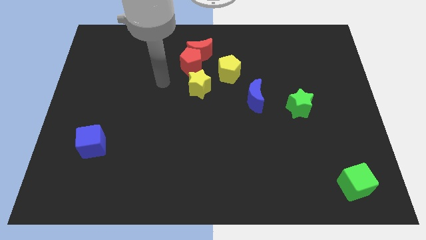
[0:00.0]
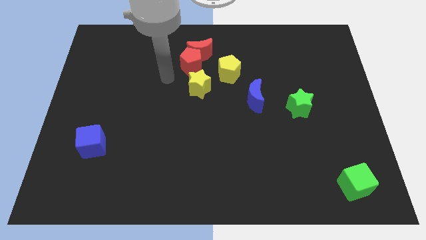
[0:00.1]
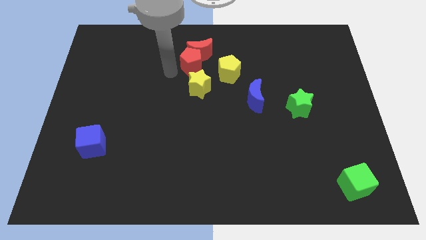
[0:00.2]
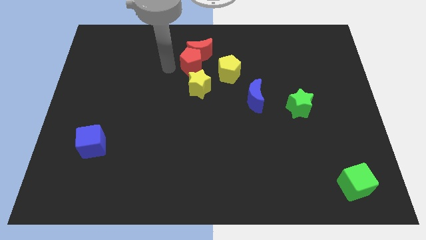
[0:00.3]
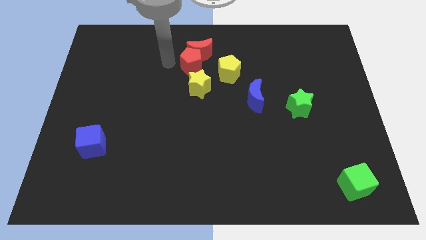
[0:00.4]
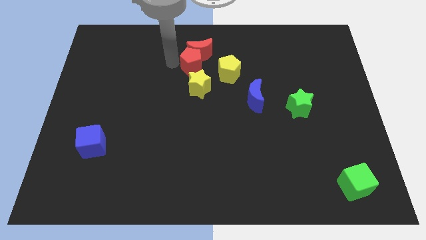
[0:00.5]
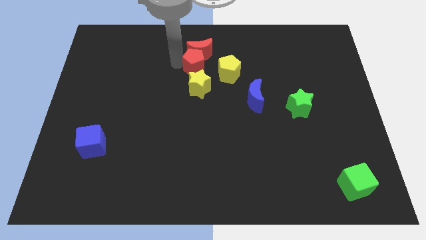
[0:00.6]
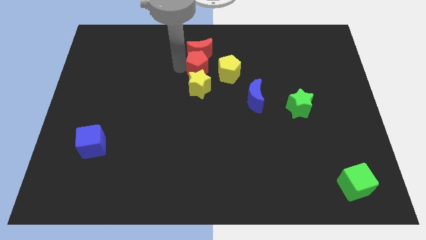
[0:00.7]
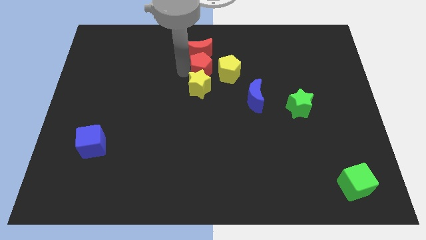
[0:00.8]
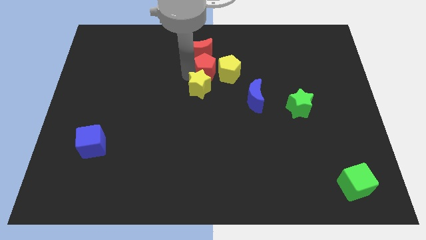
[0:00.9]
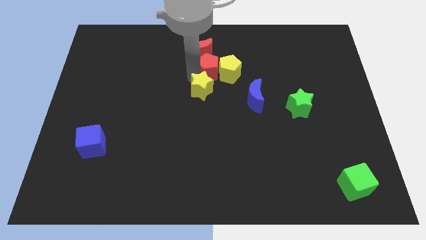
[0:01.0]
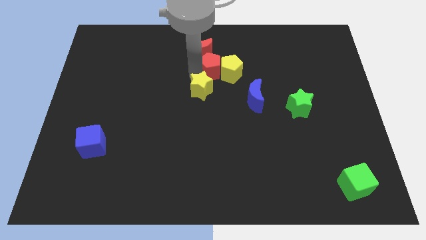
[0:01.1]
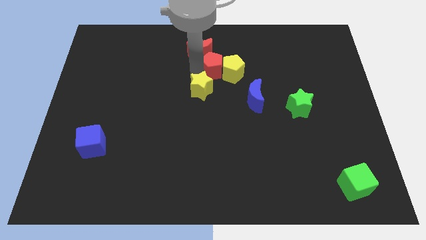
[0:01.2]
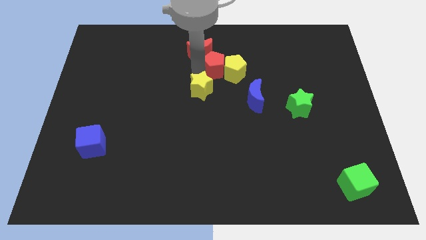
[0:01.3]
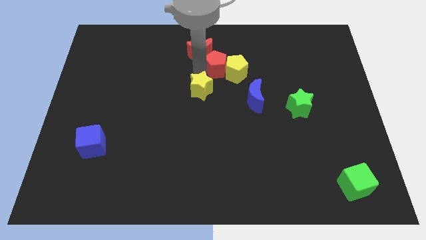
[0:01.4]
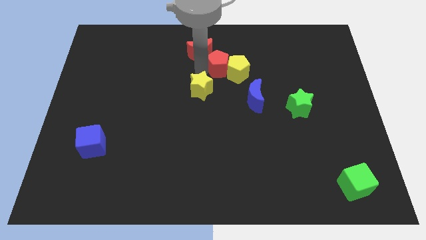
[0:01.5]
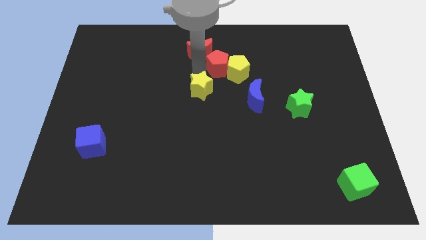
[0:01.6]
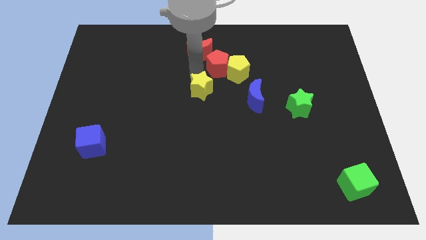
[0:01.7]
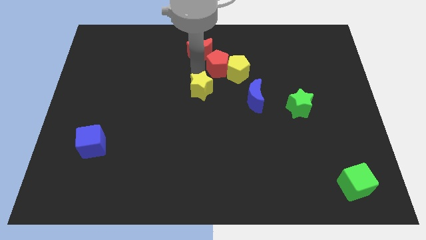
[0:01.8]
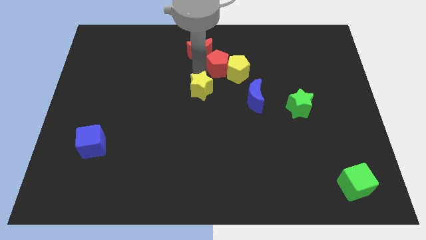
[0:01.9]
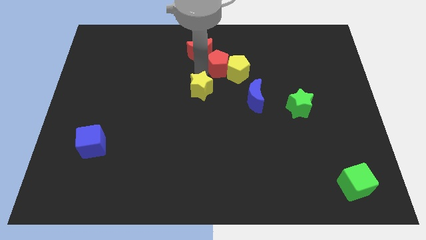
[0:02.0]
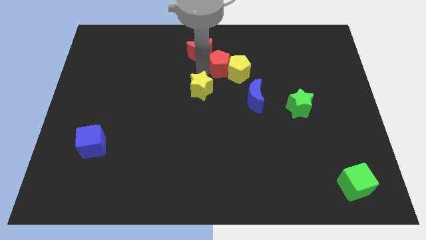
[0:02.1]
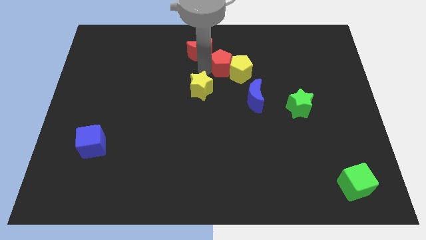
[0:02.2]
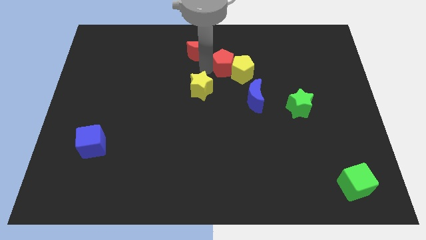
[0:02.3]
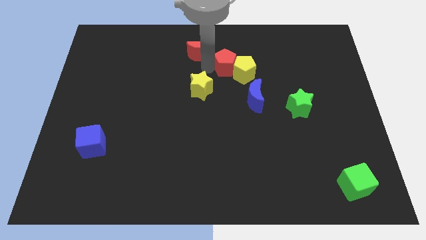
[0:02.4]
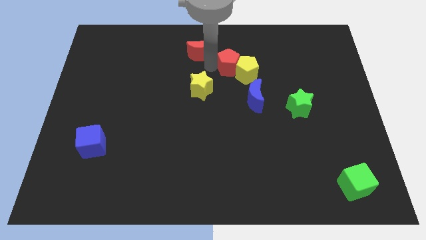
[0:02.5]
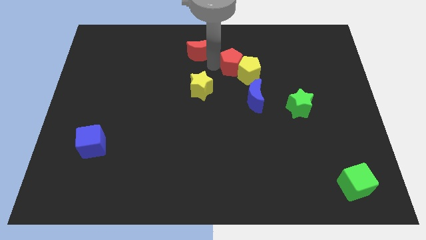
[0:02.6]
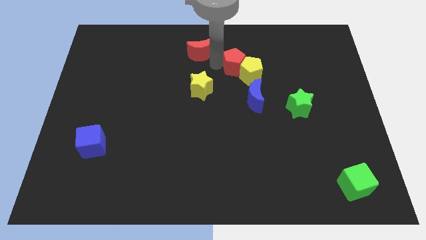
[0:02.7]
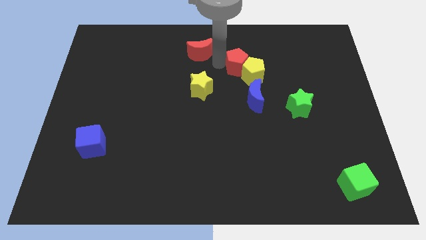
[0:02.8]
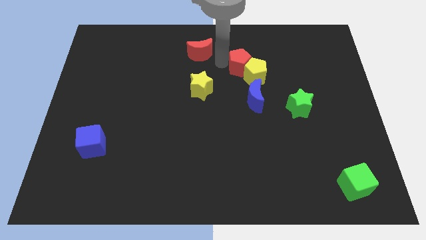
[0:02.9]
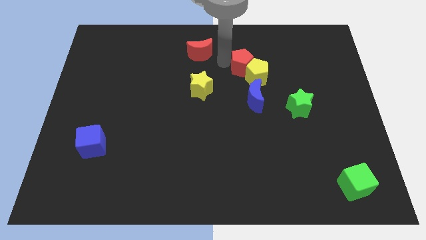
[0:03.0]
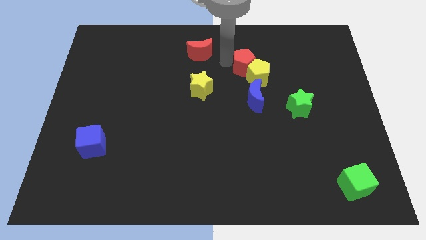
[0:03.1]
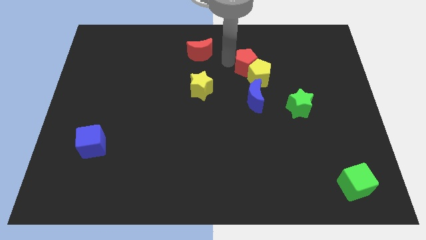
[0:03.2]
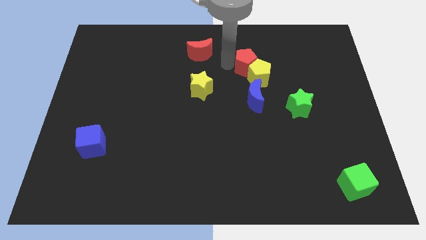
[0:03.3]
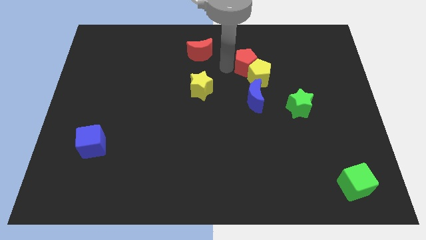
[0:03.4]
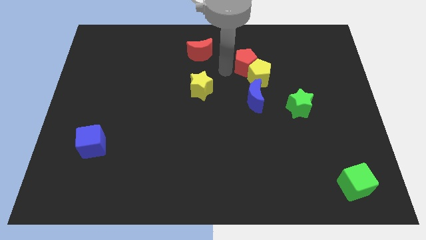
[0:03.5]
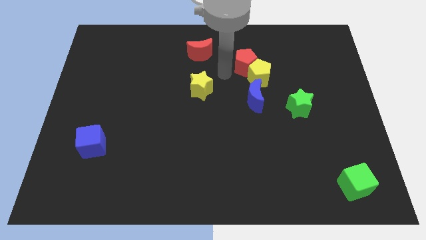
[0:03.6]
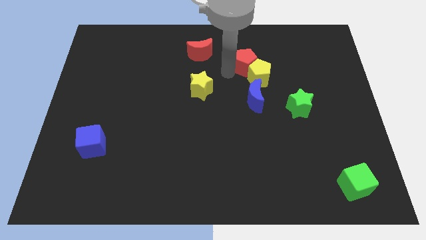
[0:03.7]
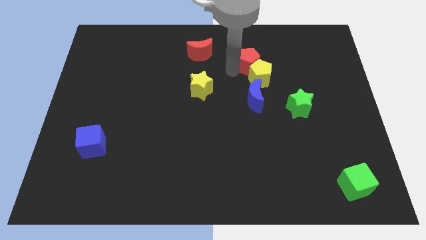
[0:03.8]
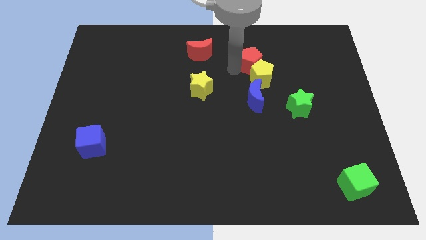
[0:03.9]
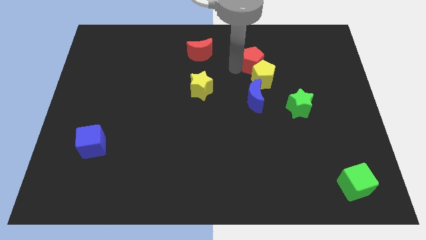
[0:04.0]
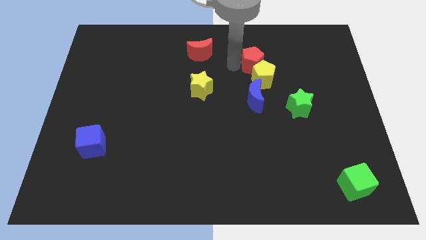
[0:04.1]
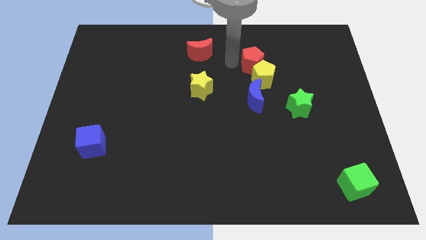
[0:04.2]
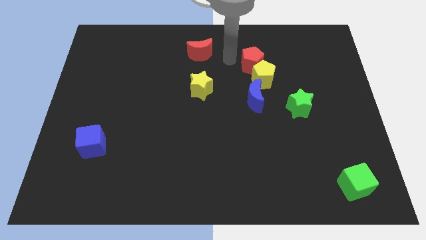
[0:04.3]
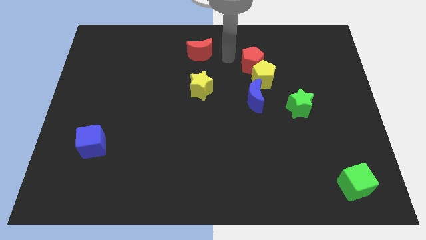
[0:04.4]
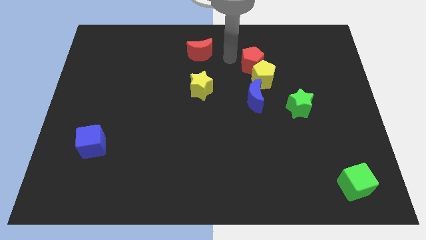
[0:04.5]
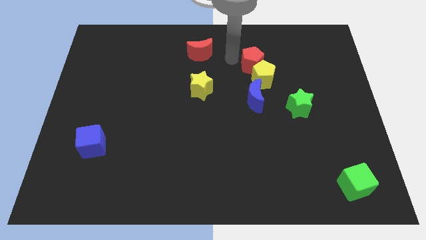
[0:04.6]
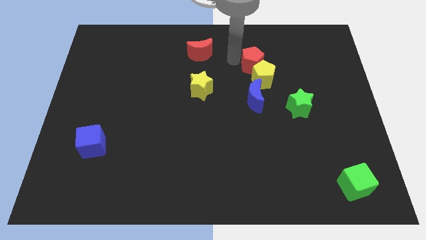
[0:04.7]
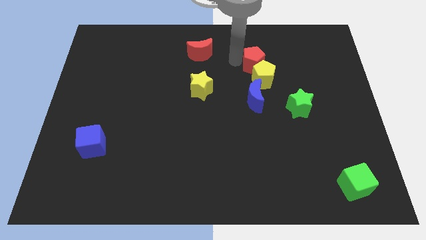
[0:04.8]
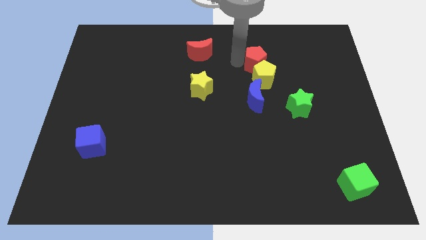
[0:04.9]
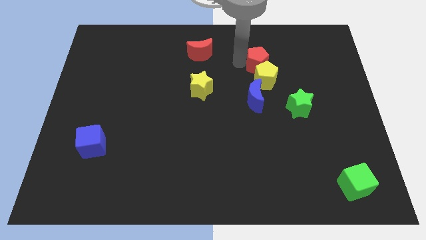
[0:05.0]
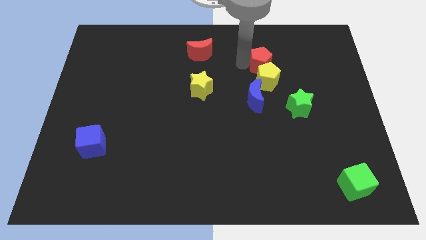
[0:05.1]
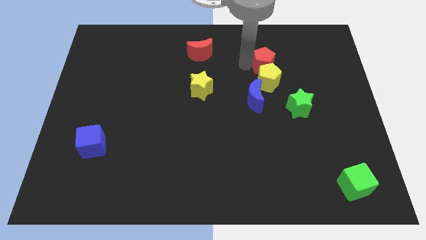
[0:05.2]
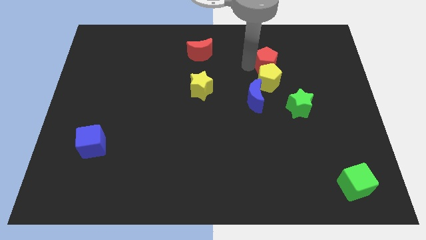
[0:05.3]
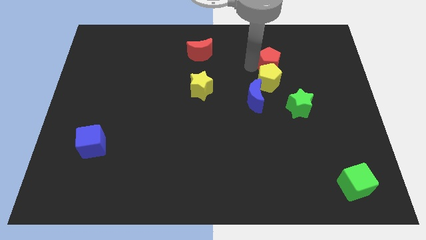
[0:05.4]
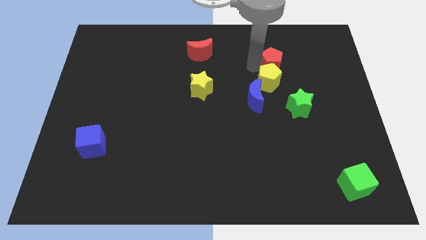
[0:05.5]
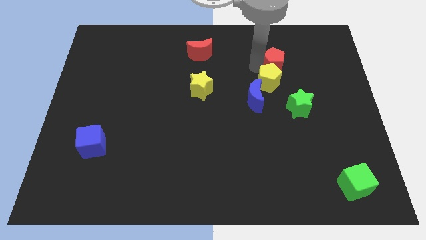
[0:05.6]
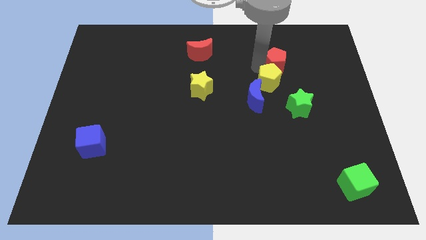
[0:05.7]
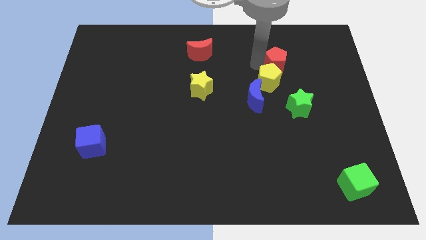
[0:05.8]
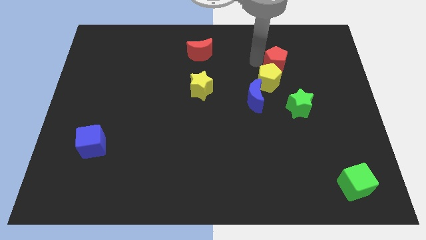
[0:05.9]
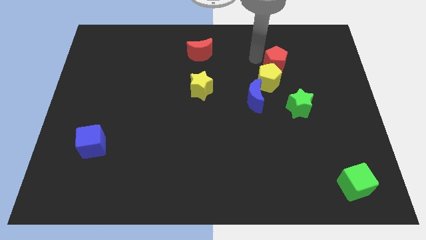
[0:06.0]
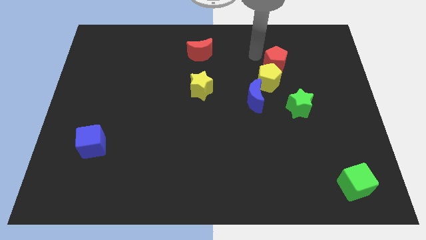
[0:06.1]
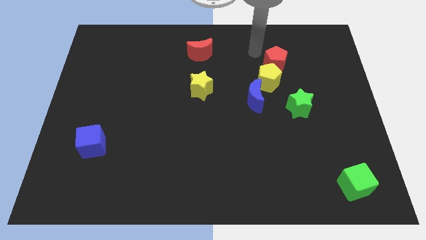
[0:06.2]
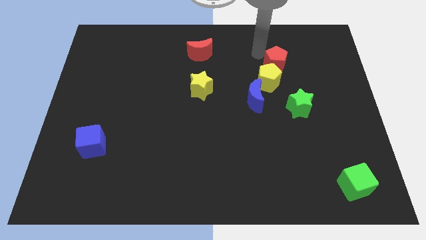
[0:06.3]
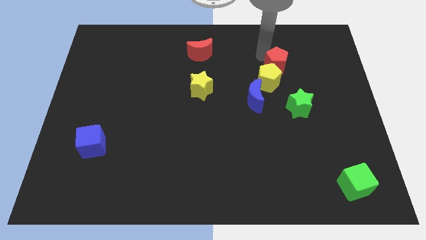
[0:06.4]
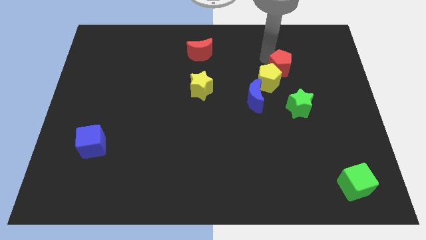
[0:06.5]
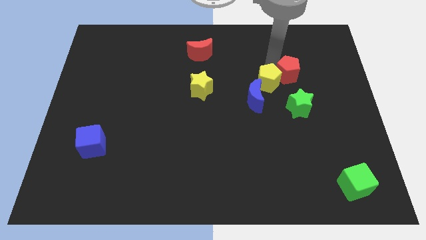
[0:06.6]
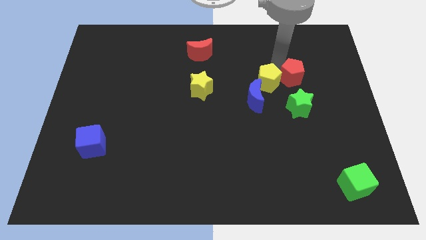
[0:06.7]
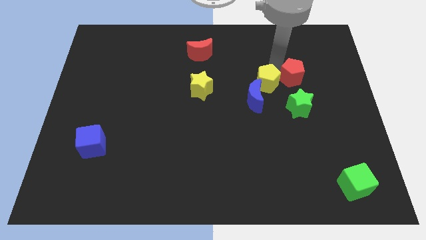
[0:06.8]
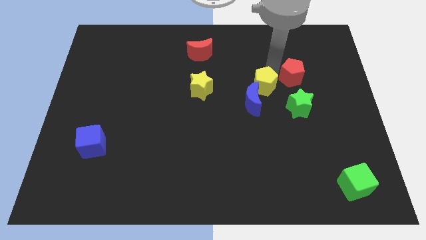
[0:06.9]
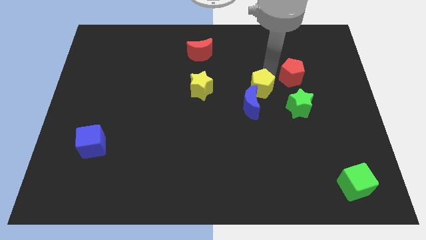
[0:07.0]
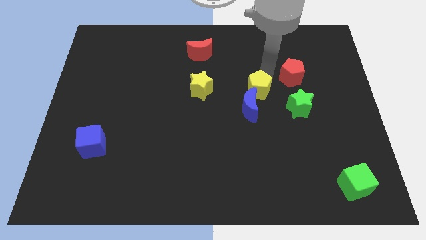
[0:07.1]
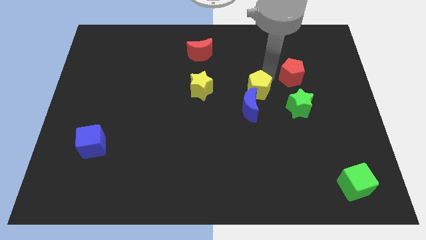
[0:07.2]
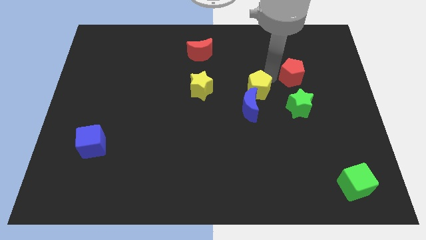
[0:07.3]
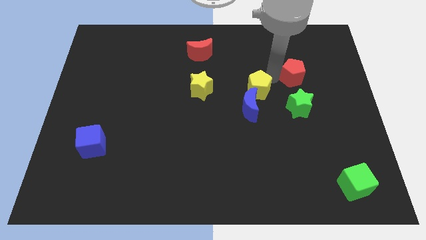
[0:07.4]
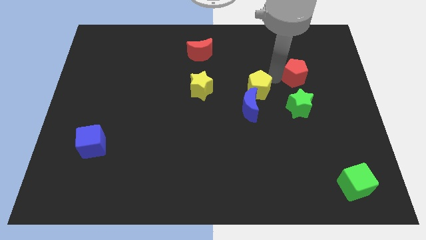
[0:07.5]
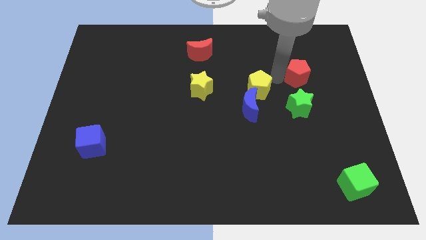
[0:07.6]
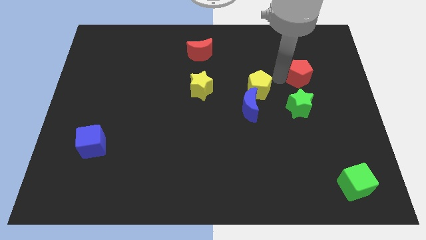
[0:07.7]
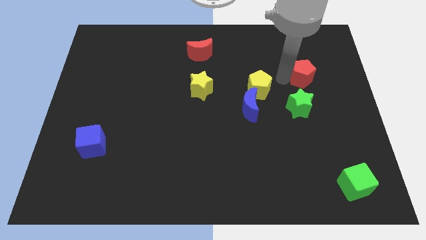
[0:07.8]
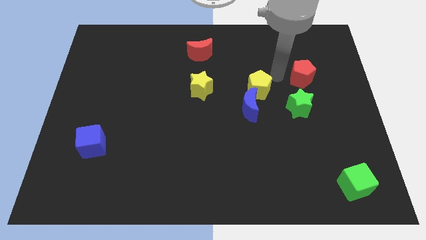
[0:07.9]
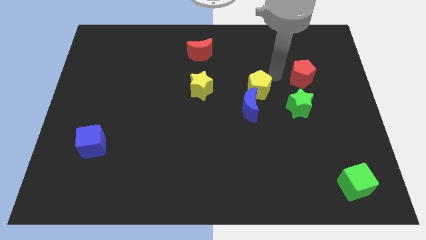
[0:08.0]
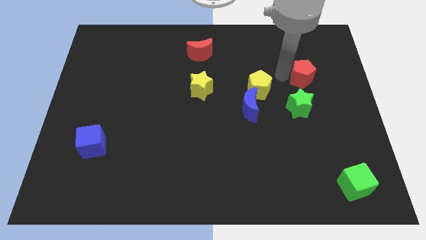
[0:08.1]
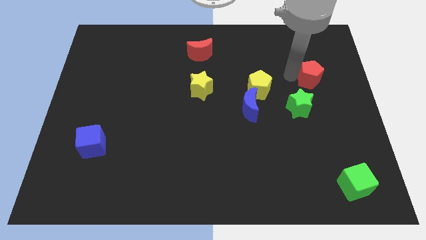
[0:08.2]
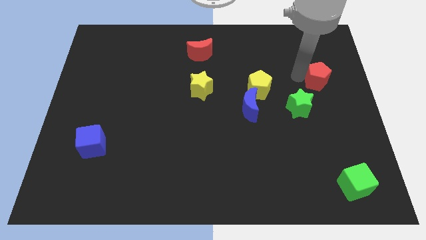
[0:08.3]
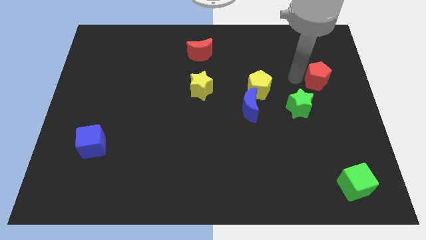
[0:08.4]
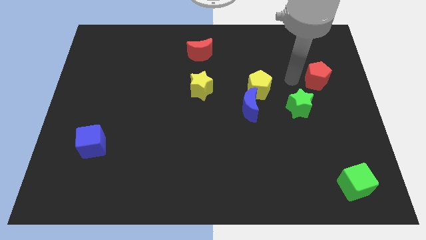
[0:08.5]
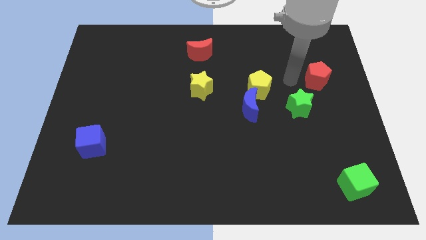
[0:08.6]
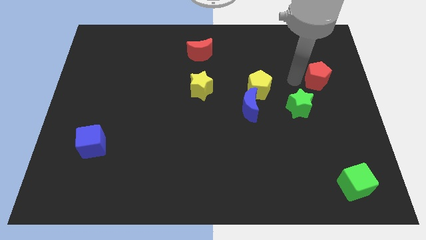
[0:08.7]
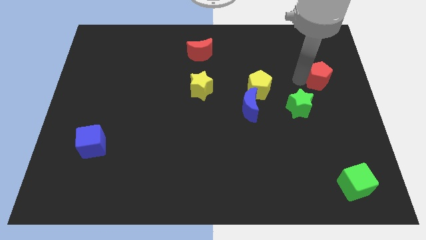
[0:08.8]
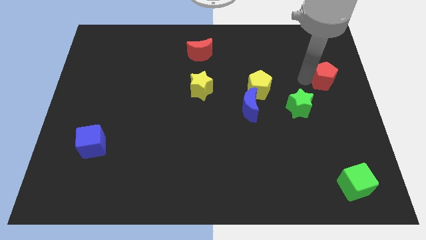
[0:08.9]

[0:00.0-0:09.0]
put the red pentagon to the center right
